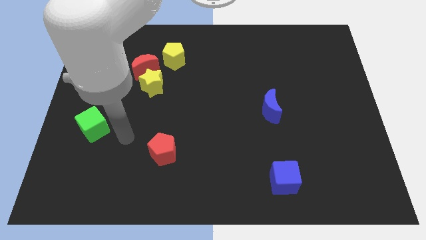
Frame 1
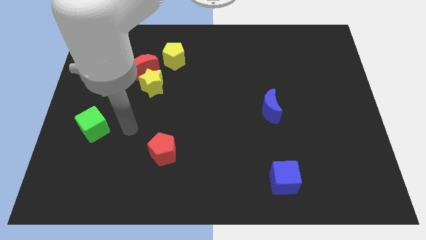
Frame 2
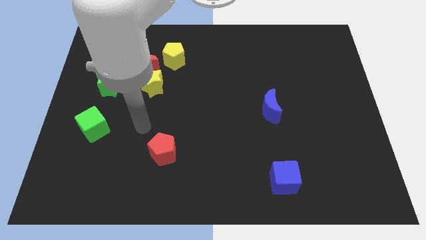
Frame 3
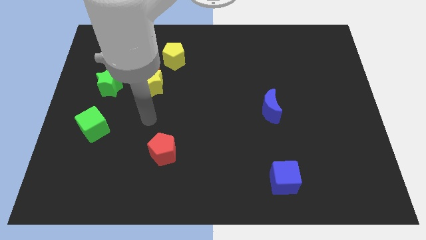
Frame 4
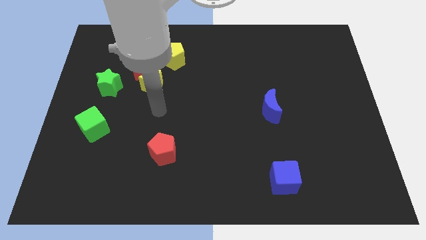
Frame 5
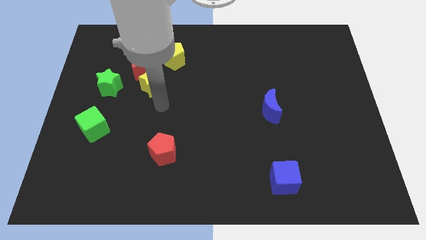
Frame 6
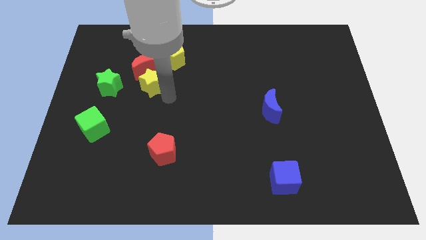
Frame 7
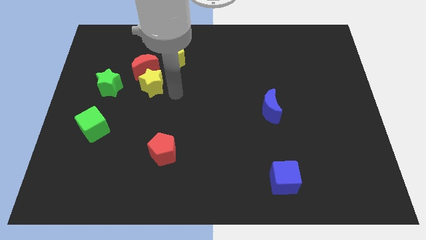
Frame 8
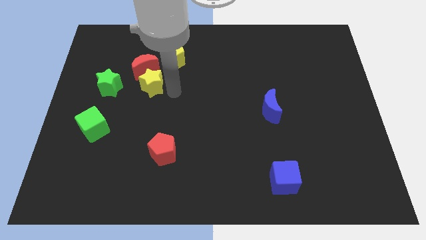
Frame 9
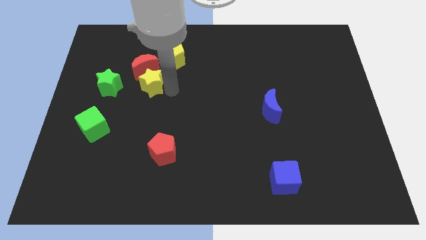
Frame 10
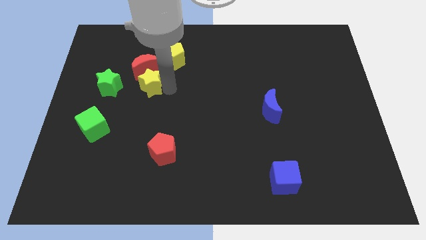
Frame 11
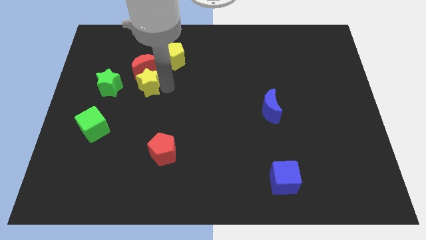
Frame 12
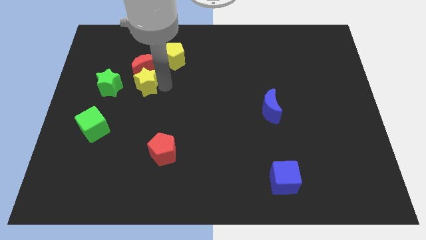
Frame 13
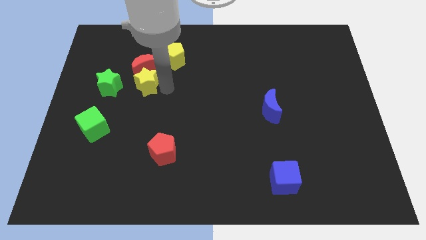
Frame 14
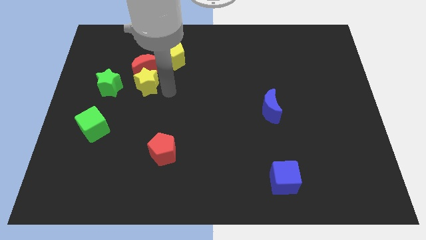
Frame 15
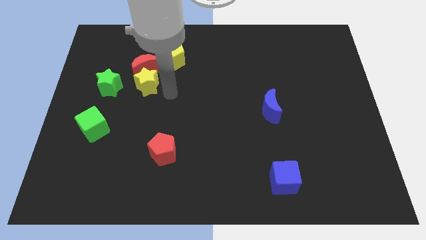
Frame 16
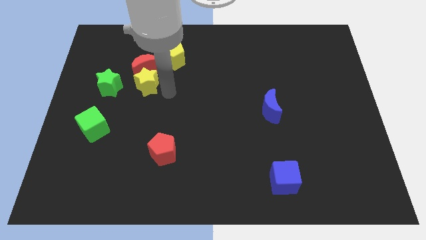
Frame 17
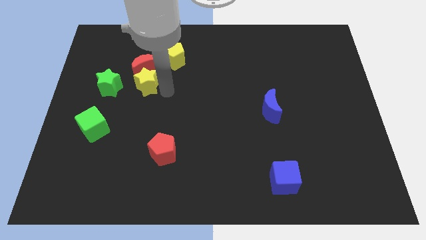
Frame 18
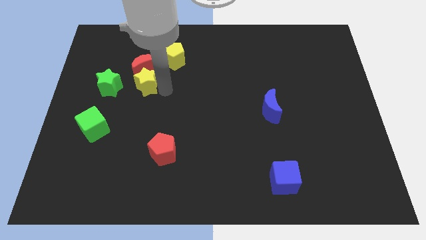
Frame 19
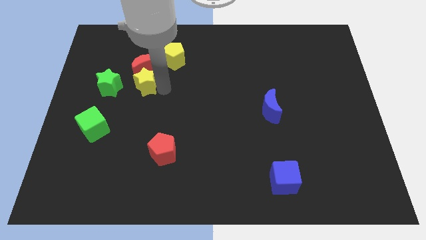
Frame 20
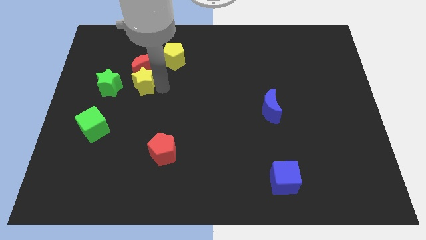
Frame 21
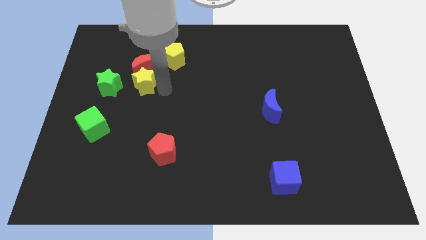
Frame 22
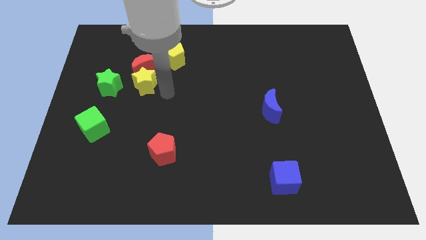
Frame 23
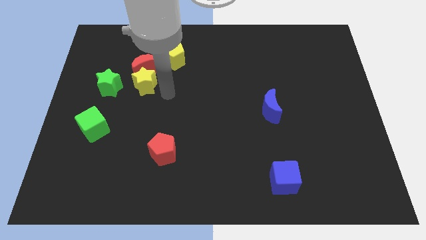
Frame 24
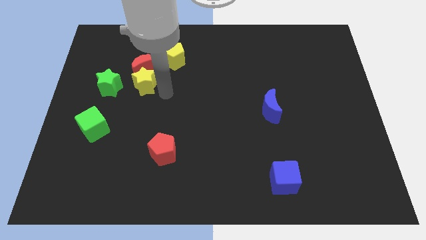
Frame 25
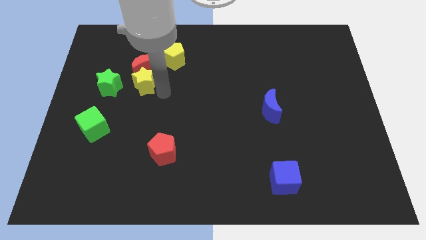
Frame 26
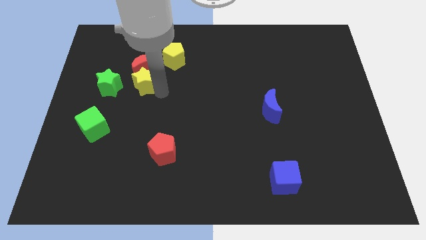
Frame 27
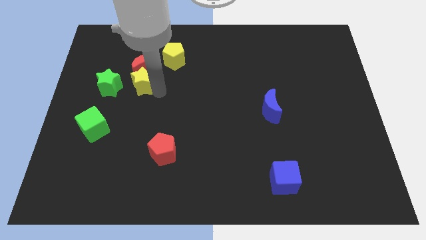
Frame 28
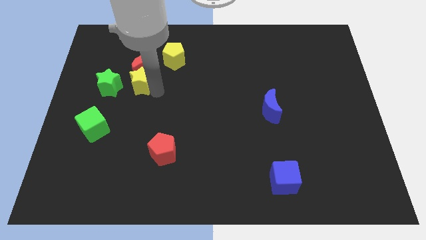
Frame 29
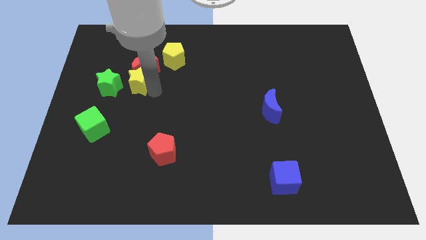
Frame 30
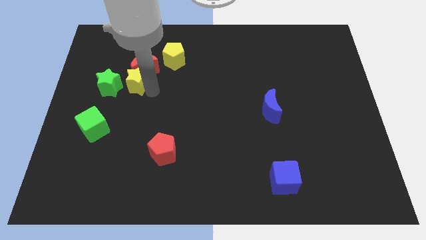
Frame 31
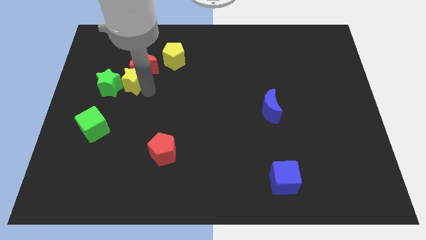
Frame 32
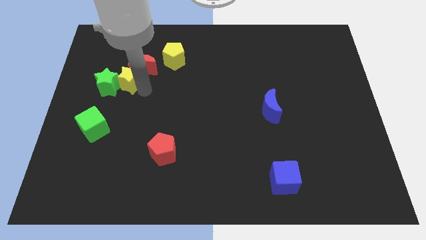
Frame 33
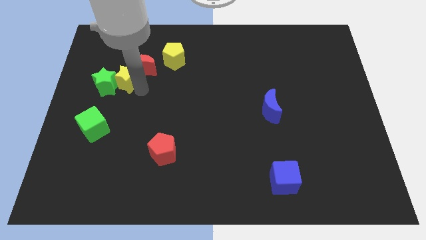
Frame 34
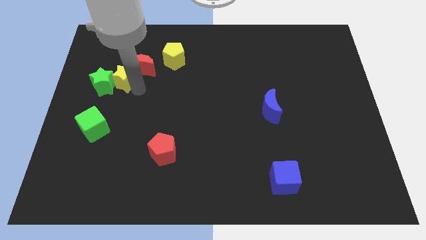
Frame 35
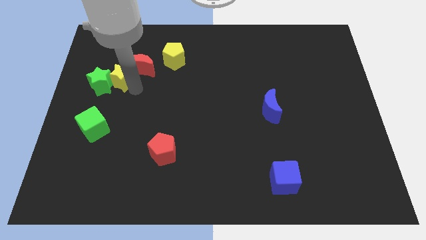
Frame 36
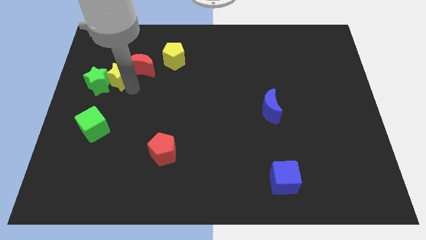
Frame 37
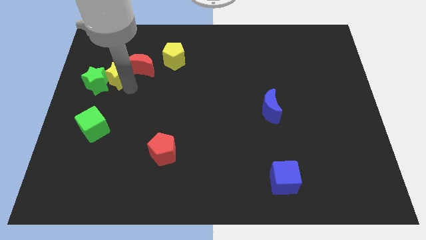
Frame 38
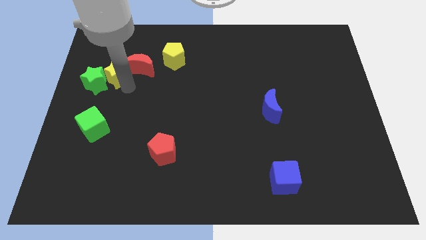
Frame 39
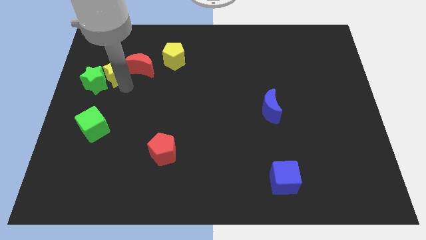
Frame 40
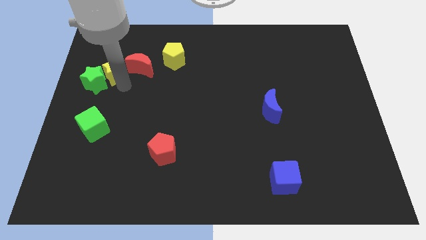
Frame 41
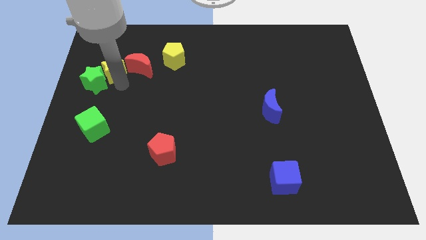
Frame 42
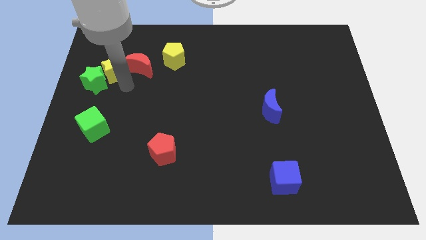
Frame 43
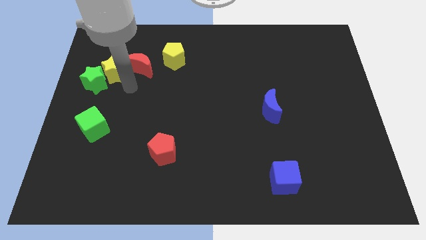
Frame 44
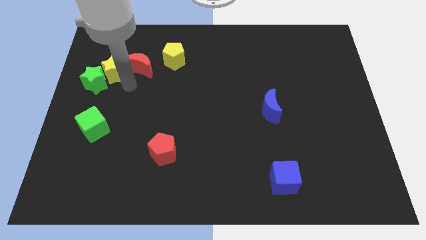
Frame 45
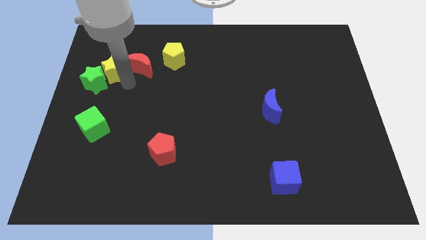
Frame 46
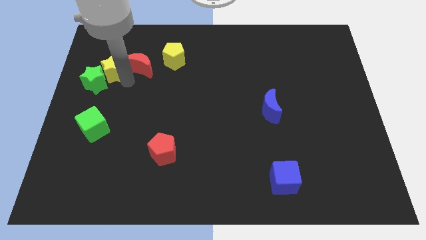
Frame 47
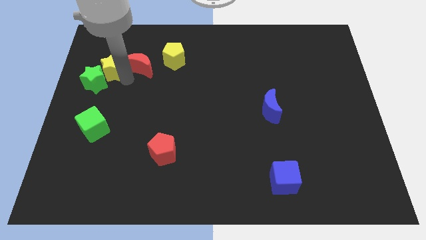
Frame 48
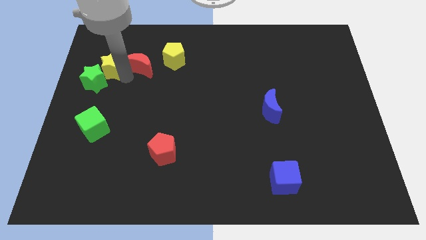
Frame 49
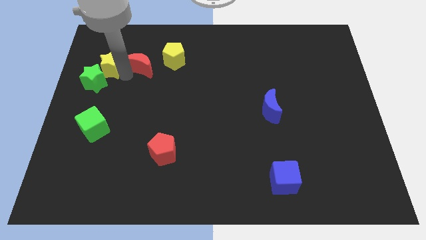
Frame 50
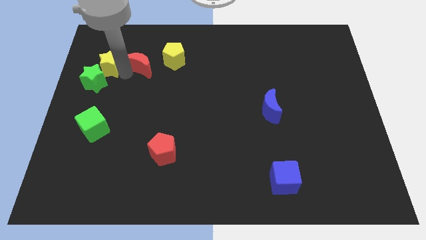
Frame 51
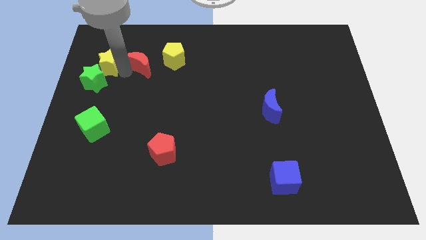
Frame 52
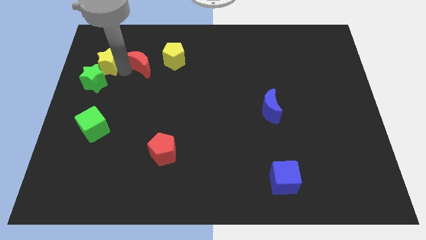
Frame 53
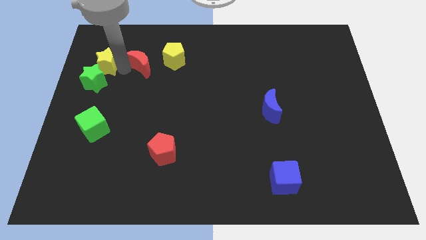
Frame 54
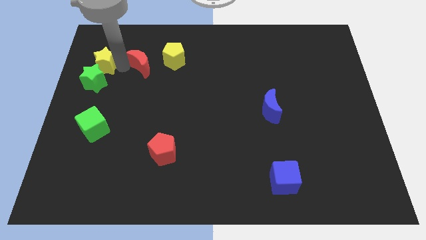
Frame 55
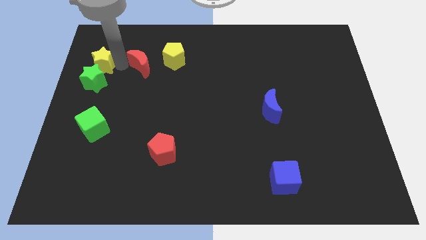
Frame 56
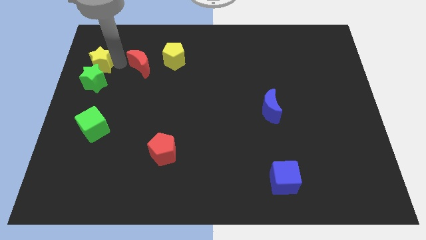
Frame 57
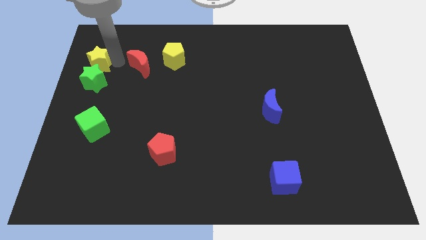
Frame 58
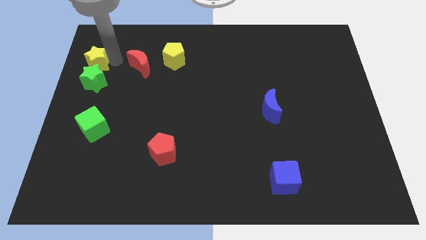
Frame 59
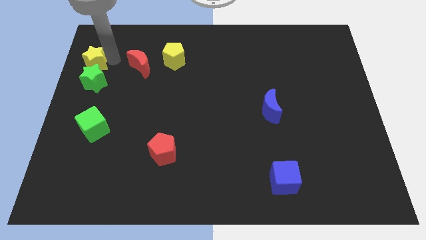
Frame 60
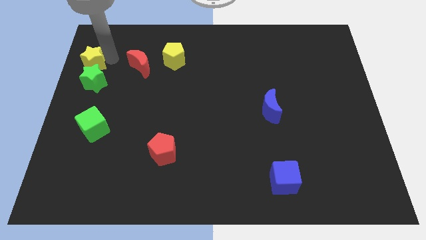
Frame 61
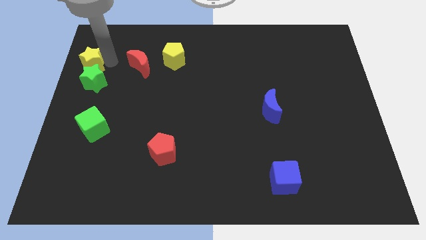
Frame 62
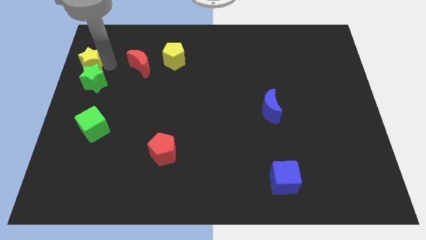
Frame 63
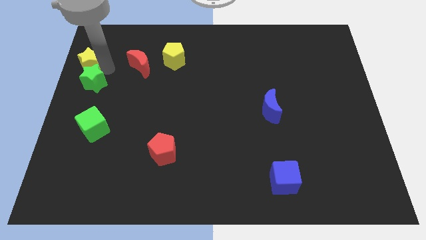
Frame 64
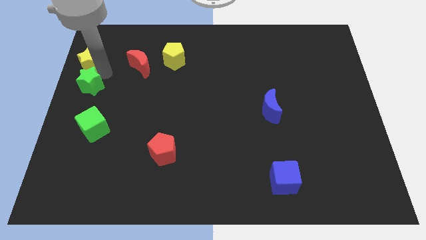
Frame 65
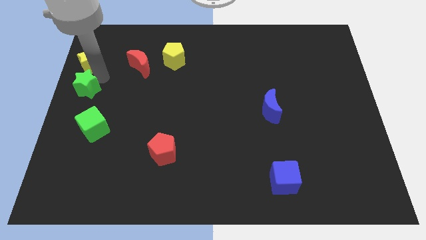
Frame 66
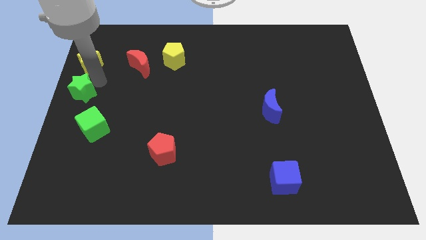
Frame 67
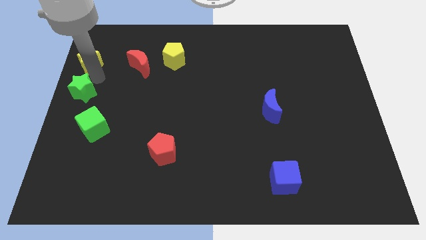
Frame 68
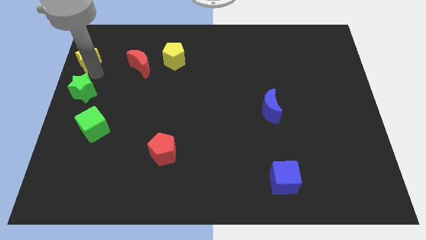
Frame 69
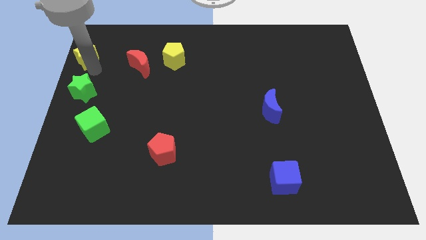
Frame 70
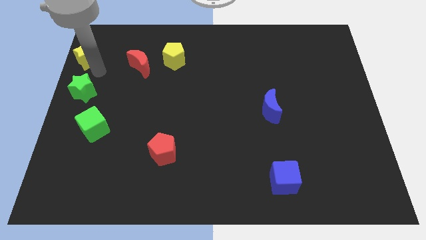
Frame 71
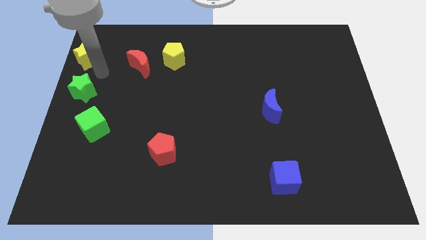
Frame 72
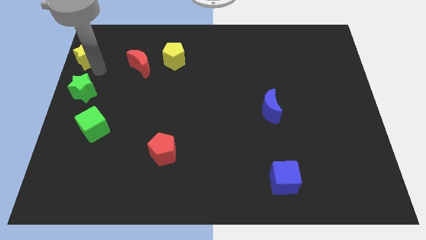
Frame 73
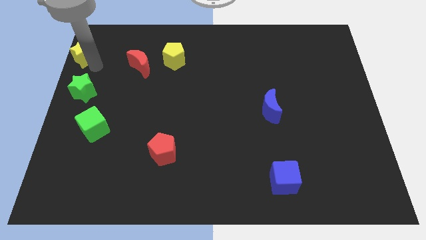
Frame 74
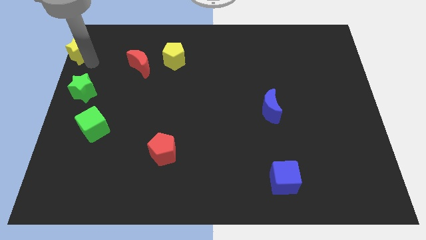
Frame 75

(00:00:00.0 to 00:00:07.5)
slide the yellow star to the top left
